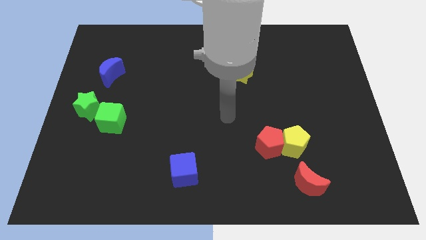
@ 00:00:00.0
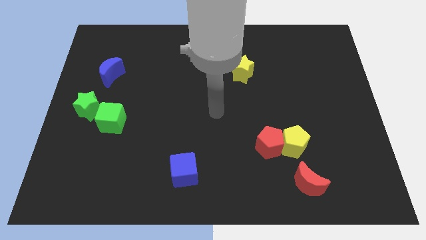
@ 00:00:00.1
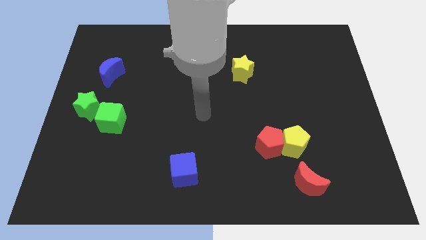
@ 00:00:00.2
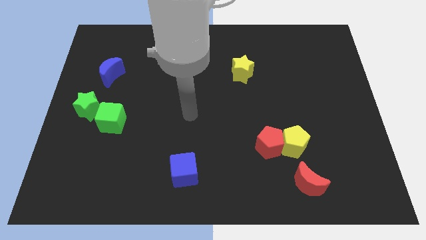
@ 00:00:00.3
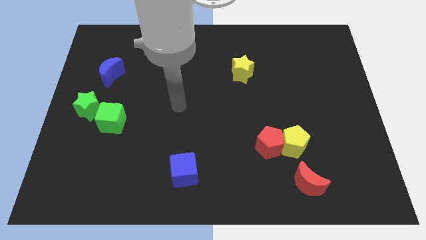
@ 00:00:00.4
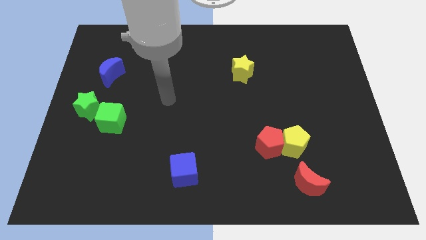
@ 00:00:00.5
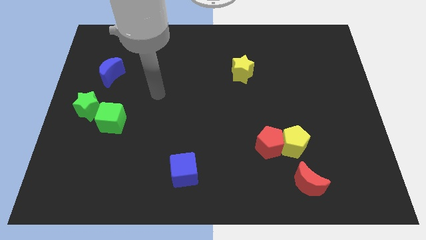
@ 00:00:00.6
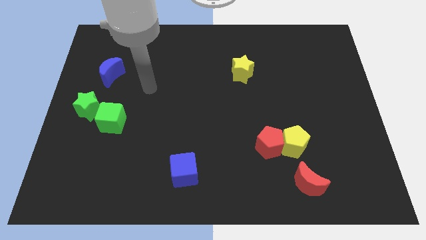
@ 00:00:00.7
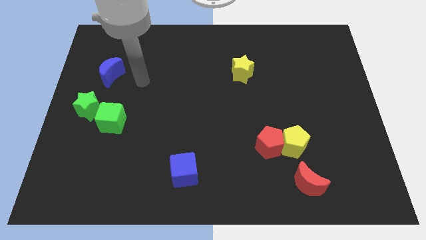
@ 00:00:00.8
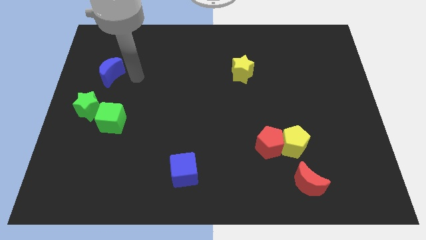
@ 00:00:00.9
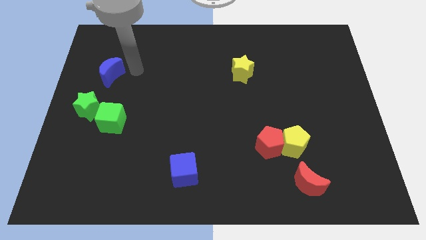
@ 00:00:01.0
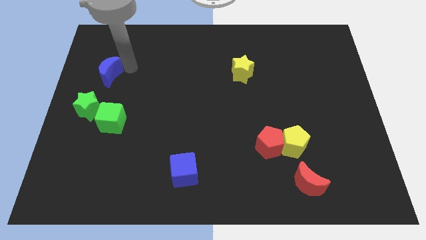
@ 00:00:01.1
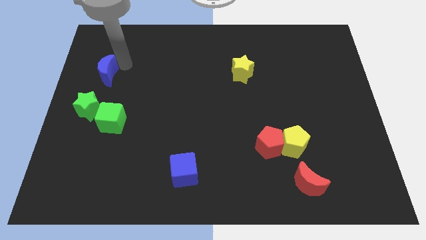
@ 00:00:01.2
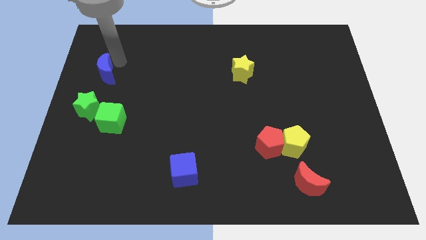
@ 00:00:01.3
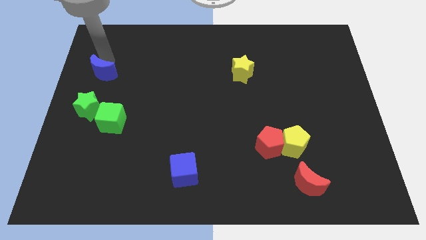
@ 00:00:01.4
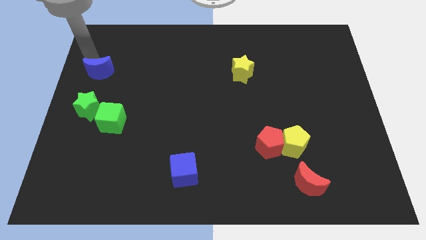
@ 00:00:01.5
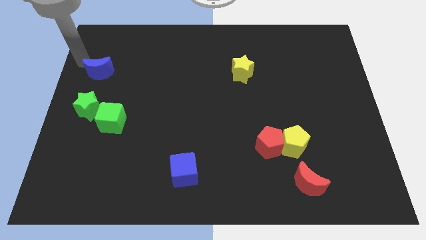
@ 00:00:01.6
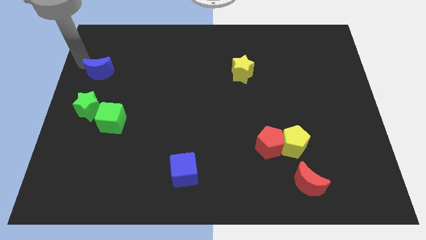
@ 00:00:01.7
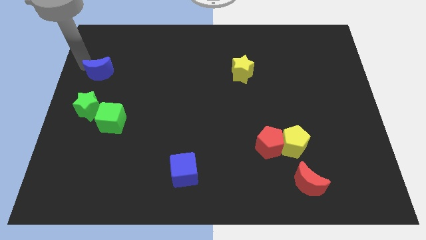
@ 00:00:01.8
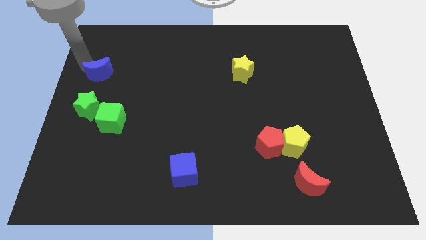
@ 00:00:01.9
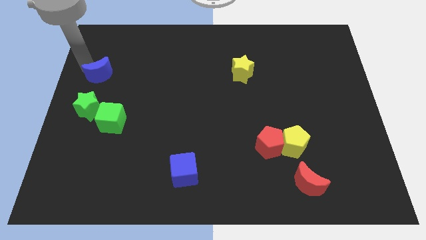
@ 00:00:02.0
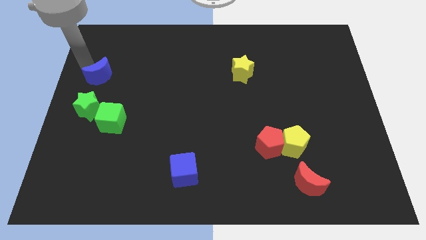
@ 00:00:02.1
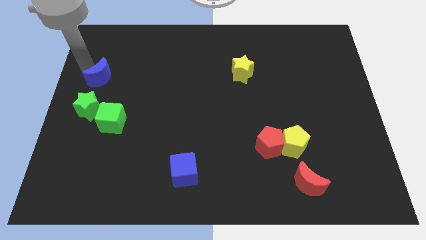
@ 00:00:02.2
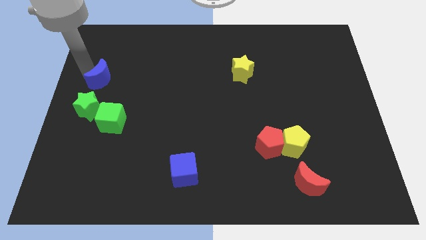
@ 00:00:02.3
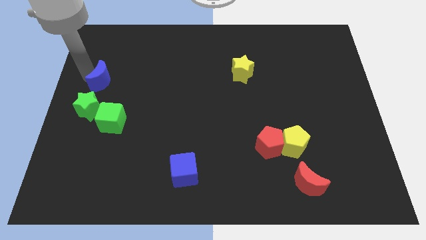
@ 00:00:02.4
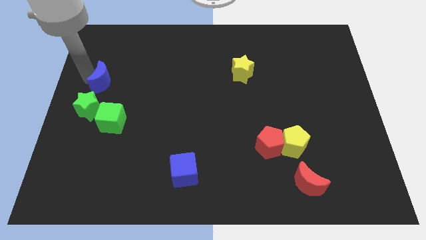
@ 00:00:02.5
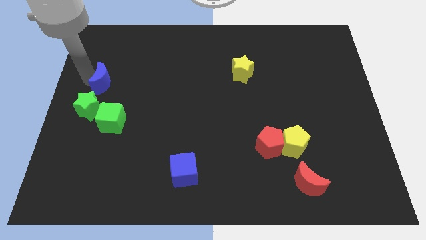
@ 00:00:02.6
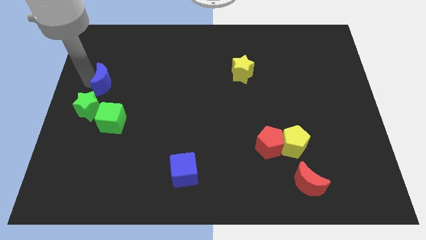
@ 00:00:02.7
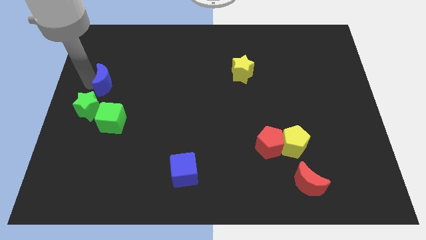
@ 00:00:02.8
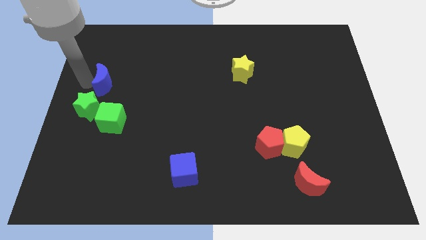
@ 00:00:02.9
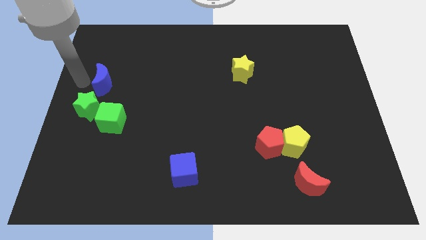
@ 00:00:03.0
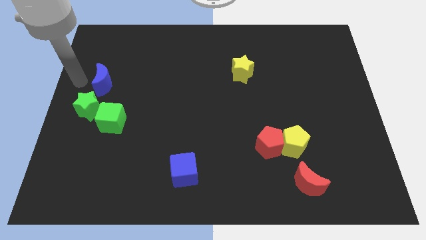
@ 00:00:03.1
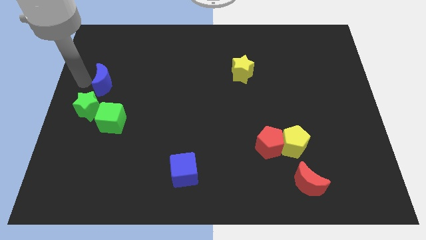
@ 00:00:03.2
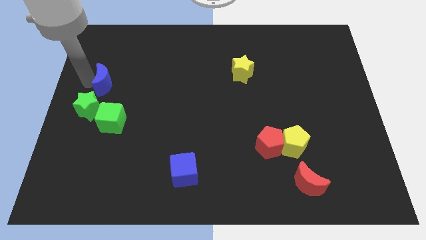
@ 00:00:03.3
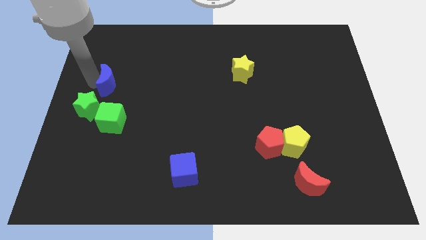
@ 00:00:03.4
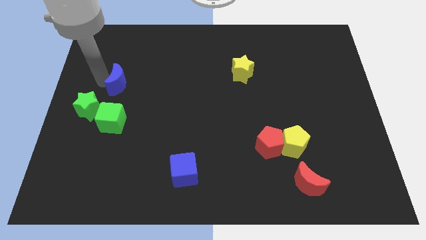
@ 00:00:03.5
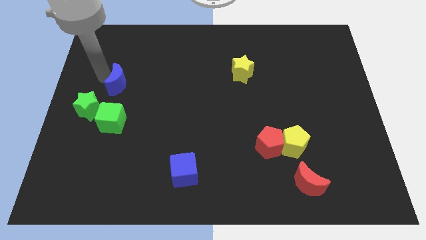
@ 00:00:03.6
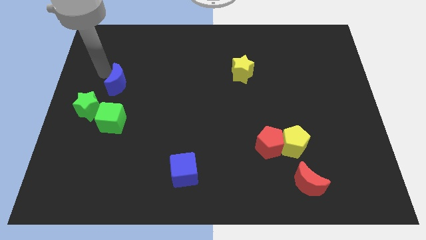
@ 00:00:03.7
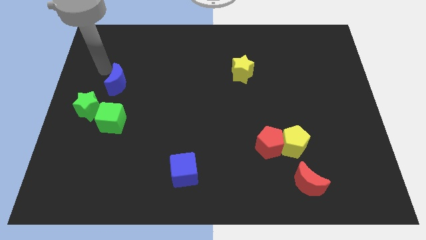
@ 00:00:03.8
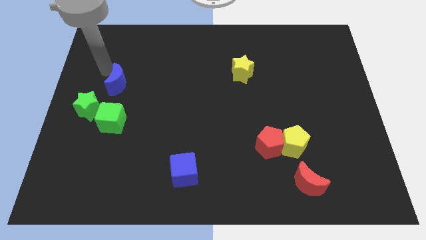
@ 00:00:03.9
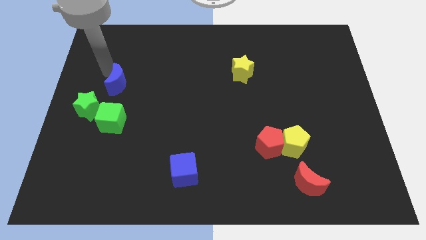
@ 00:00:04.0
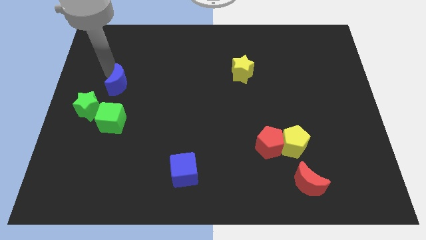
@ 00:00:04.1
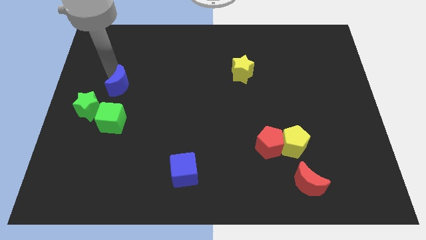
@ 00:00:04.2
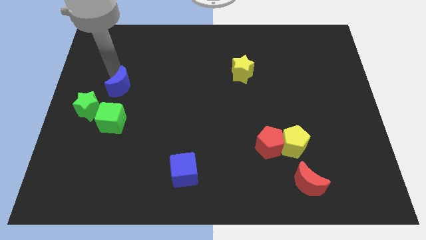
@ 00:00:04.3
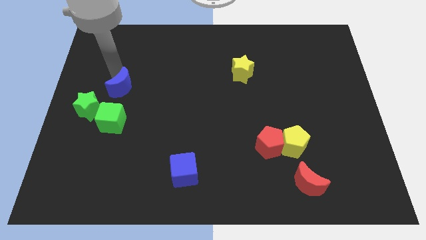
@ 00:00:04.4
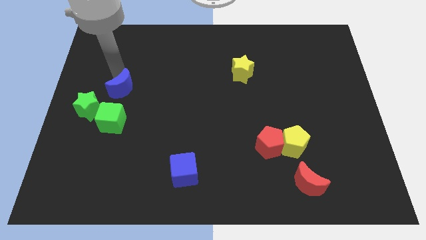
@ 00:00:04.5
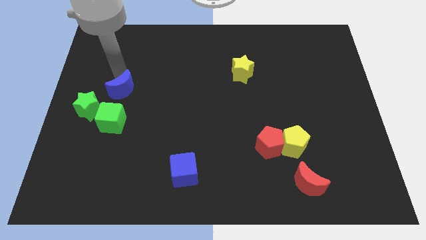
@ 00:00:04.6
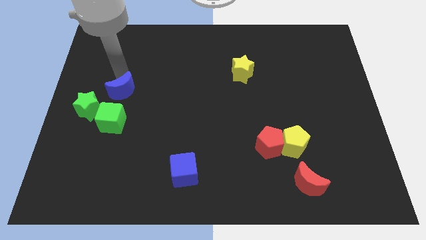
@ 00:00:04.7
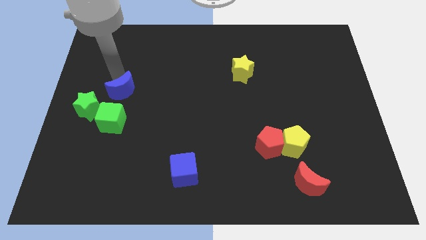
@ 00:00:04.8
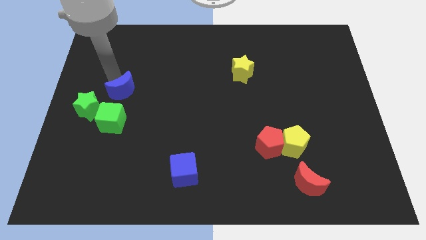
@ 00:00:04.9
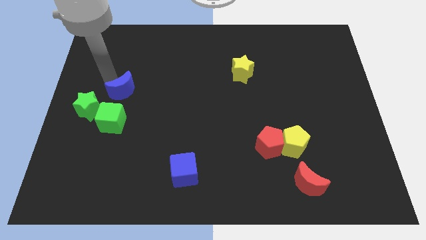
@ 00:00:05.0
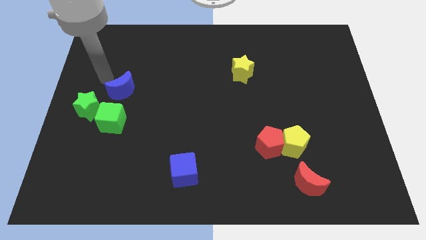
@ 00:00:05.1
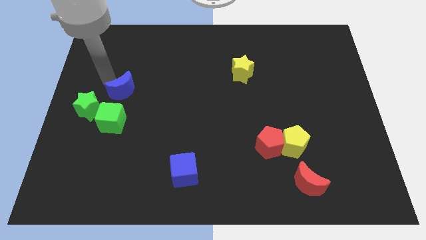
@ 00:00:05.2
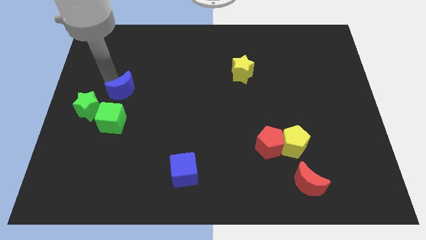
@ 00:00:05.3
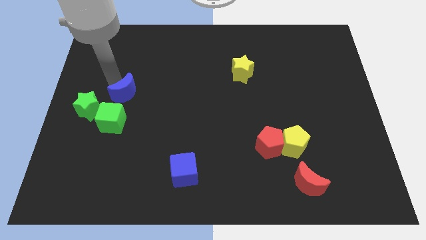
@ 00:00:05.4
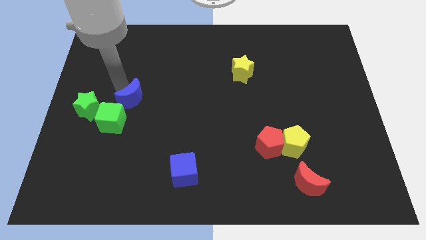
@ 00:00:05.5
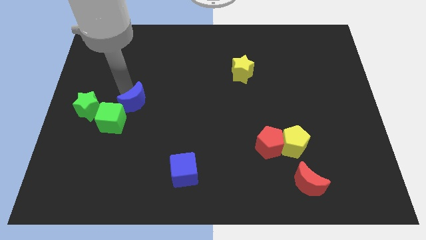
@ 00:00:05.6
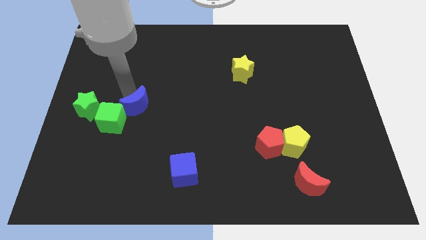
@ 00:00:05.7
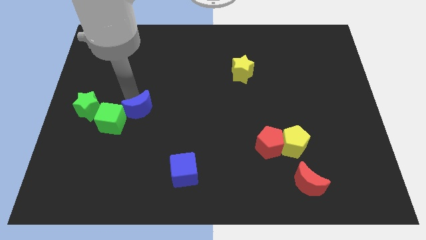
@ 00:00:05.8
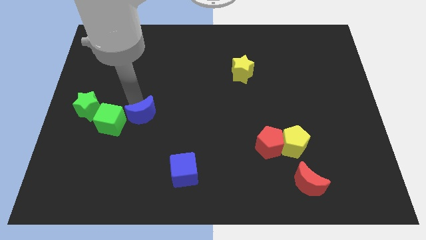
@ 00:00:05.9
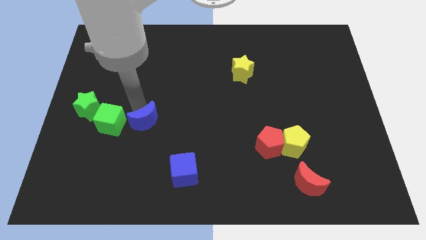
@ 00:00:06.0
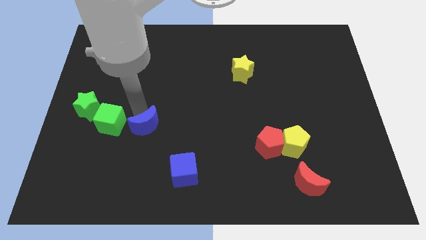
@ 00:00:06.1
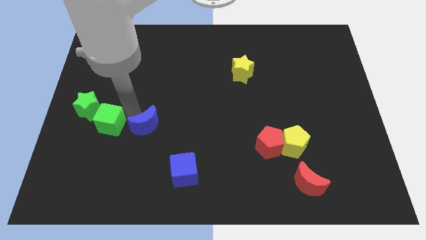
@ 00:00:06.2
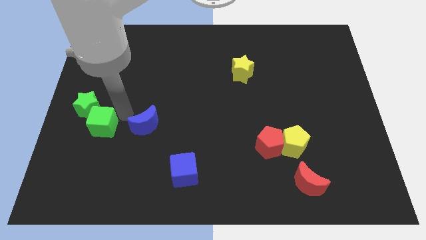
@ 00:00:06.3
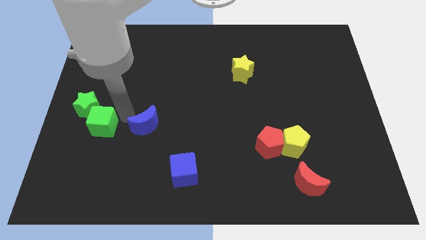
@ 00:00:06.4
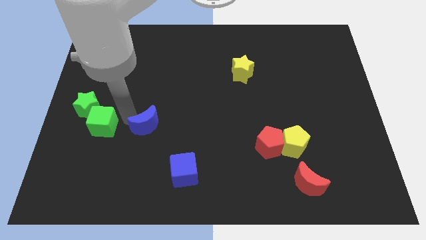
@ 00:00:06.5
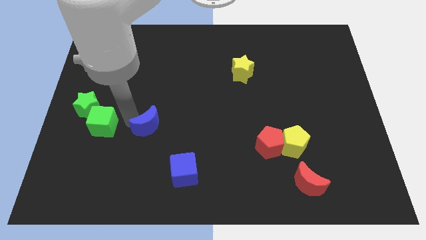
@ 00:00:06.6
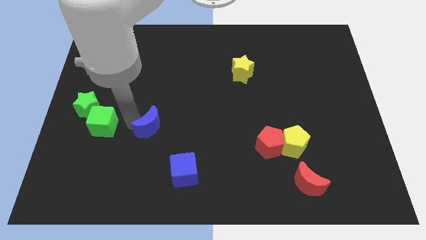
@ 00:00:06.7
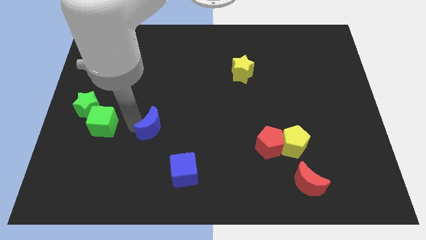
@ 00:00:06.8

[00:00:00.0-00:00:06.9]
slide the blue moon downwards and right diagonally

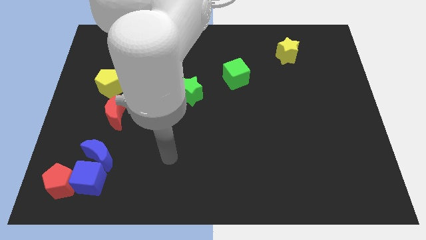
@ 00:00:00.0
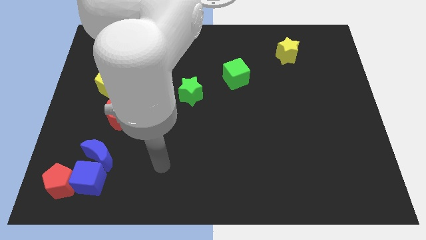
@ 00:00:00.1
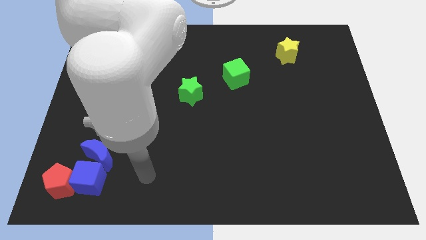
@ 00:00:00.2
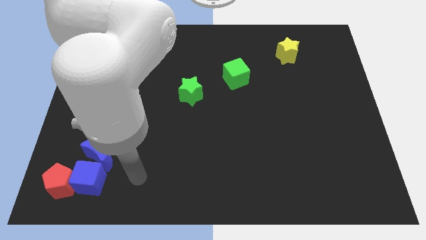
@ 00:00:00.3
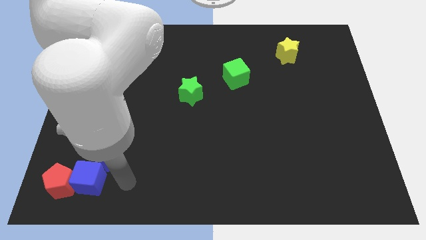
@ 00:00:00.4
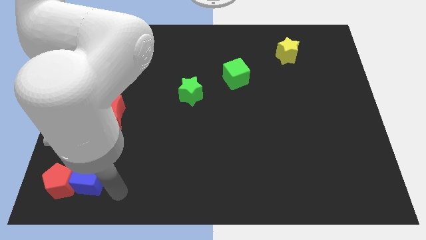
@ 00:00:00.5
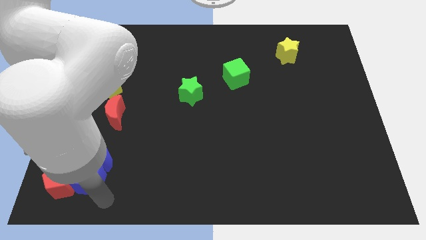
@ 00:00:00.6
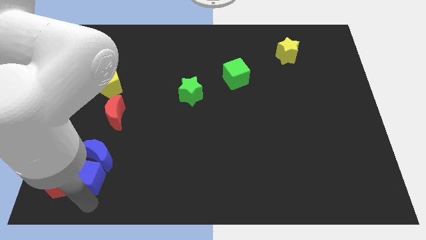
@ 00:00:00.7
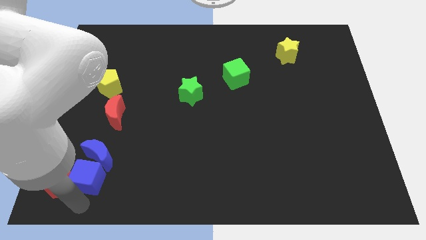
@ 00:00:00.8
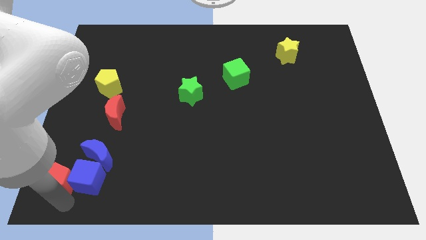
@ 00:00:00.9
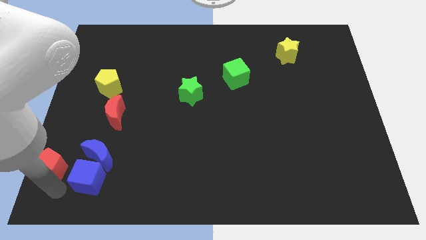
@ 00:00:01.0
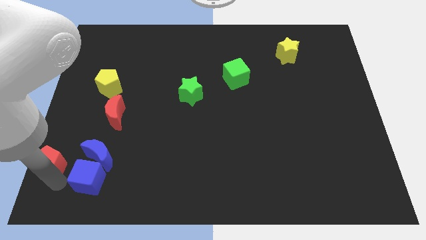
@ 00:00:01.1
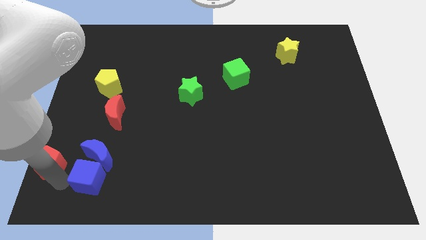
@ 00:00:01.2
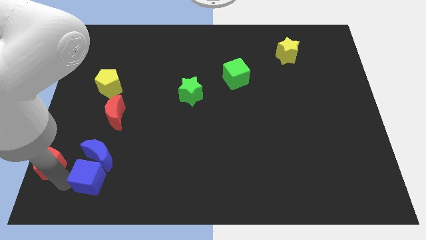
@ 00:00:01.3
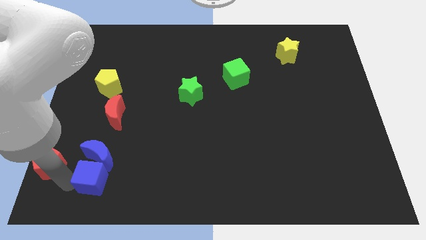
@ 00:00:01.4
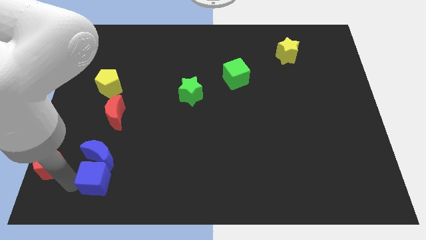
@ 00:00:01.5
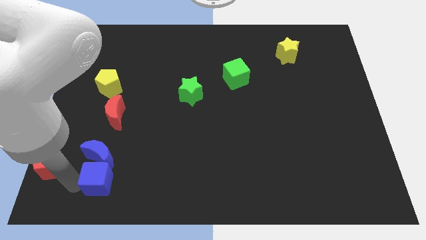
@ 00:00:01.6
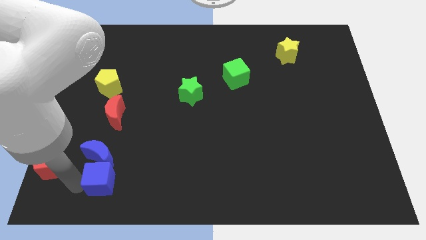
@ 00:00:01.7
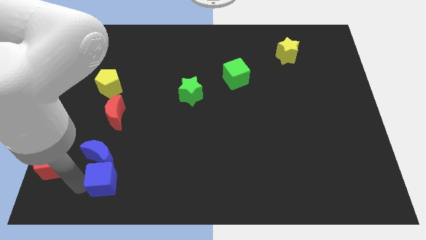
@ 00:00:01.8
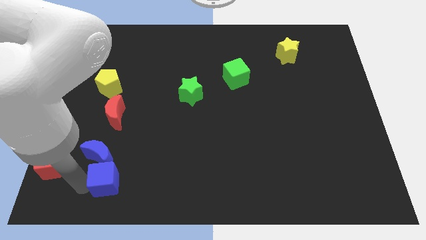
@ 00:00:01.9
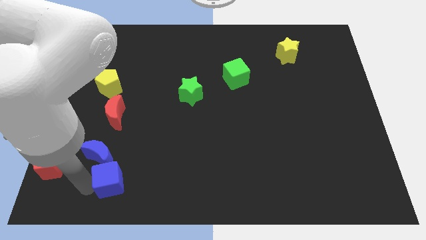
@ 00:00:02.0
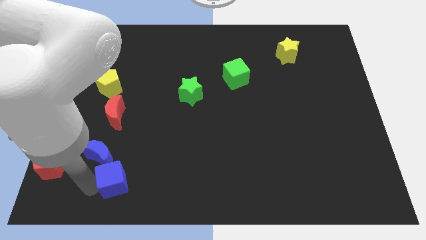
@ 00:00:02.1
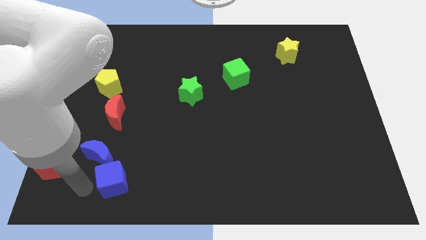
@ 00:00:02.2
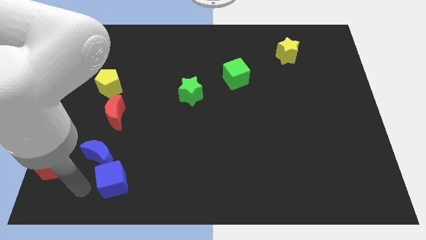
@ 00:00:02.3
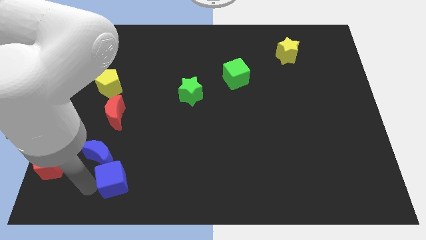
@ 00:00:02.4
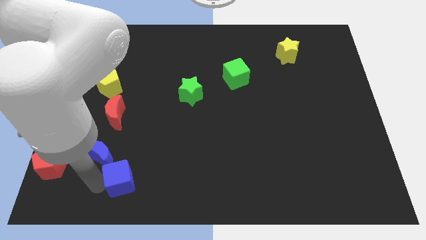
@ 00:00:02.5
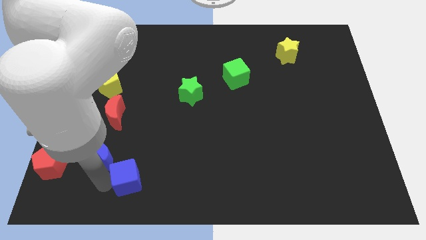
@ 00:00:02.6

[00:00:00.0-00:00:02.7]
slightly push the blue cube right
